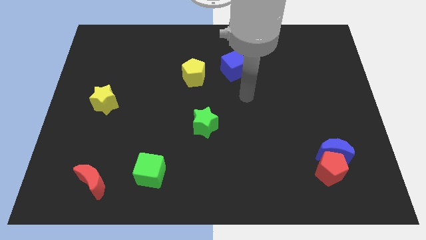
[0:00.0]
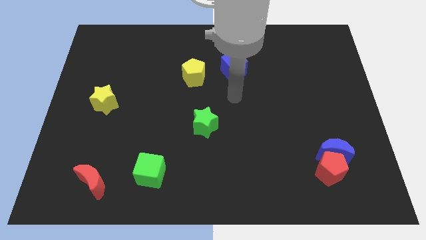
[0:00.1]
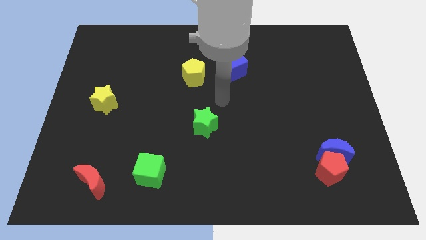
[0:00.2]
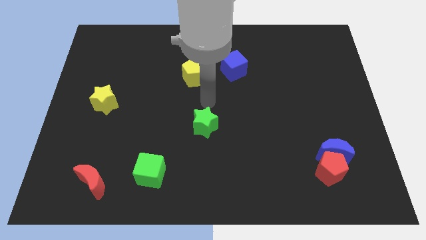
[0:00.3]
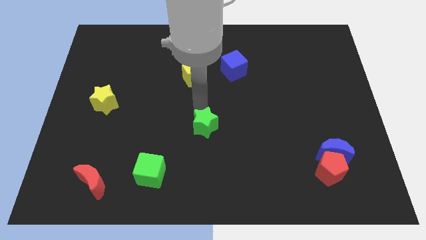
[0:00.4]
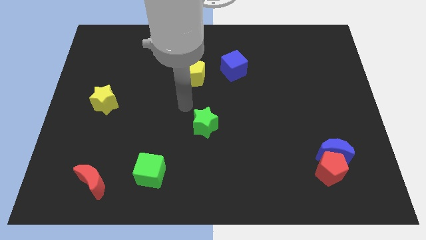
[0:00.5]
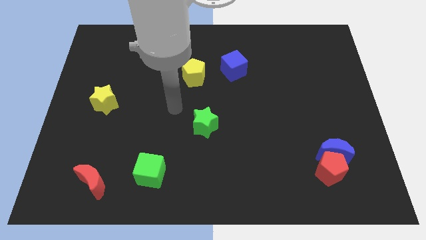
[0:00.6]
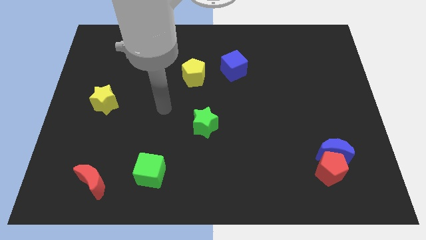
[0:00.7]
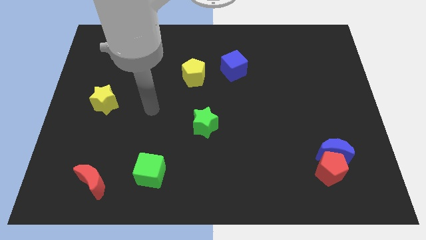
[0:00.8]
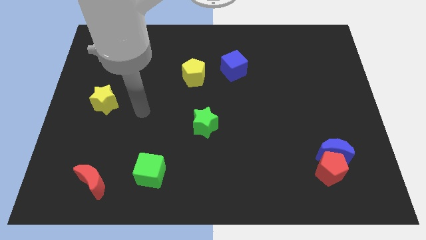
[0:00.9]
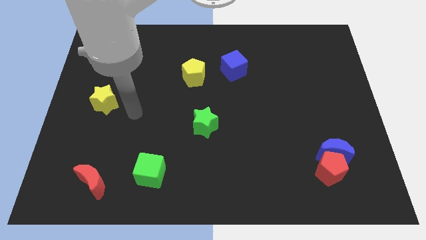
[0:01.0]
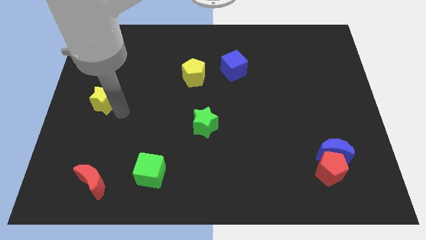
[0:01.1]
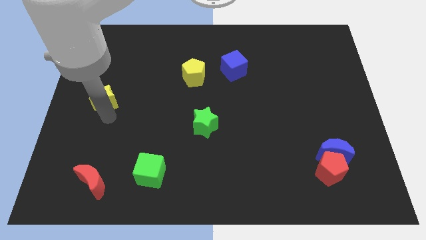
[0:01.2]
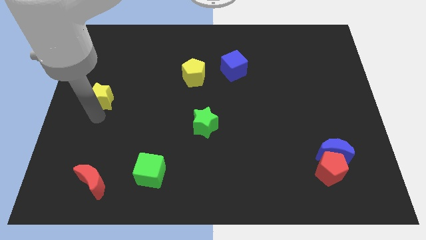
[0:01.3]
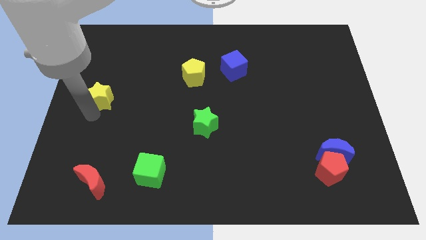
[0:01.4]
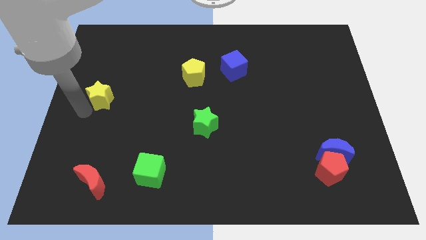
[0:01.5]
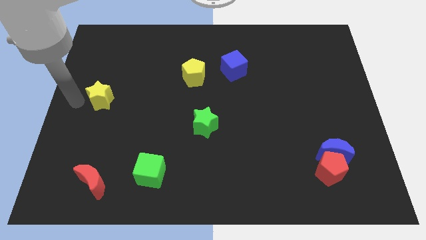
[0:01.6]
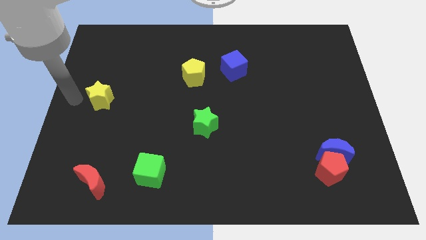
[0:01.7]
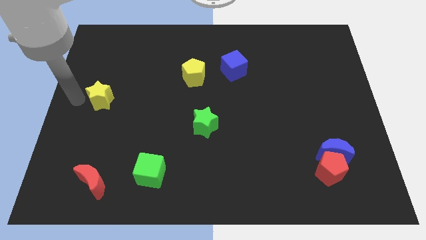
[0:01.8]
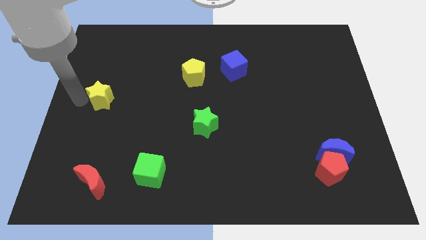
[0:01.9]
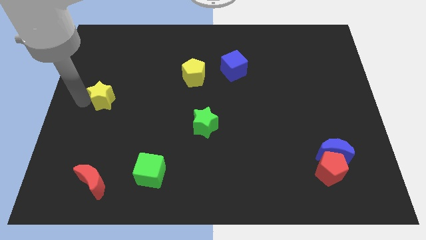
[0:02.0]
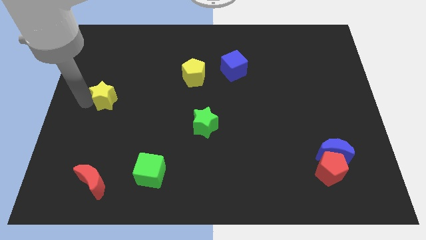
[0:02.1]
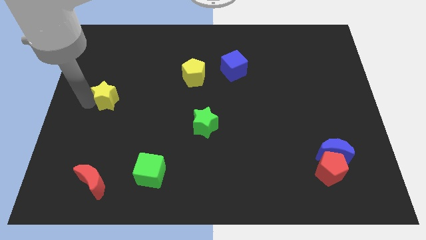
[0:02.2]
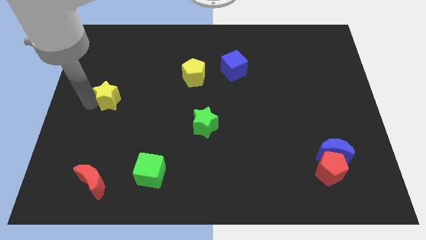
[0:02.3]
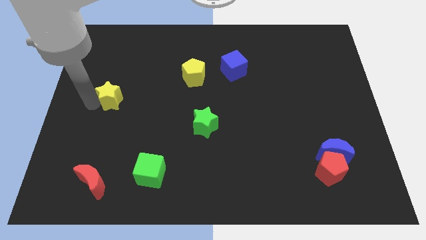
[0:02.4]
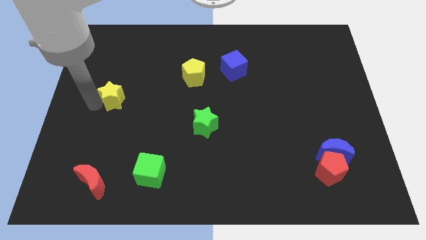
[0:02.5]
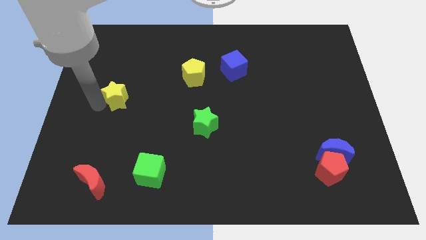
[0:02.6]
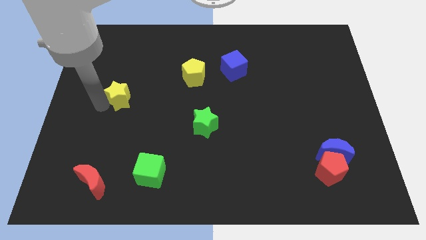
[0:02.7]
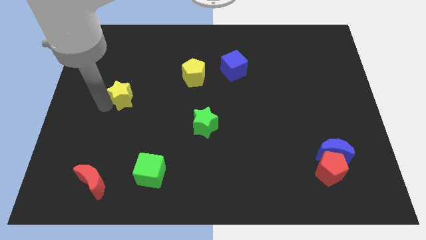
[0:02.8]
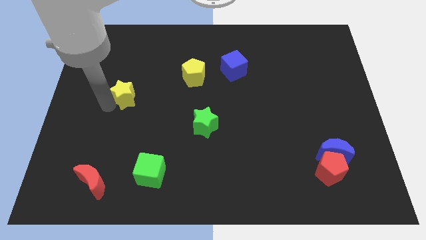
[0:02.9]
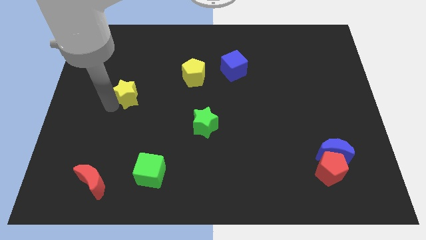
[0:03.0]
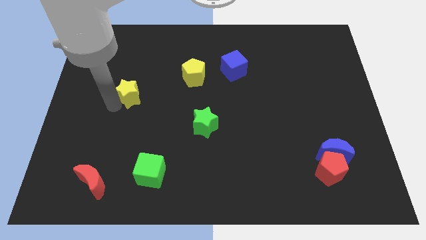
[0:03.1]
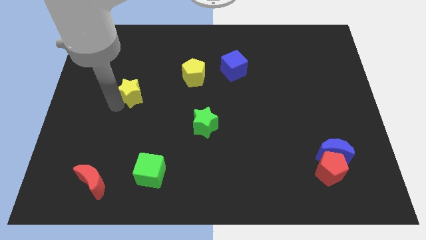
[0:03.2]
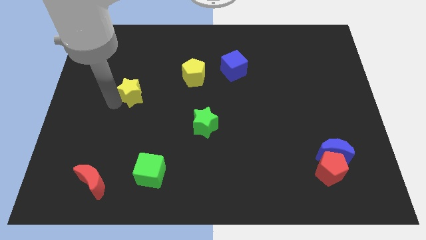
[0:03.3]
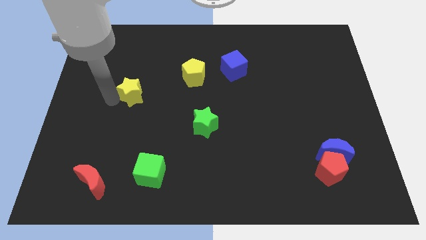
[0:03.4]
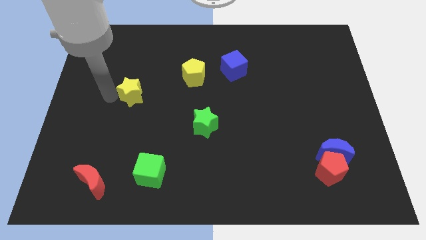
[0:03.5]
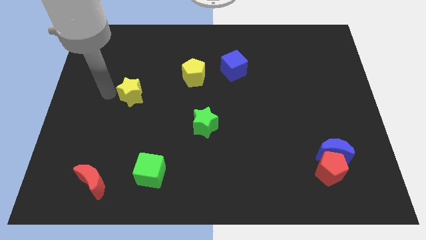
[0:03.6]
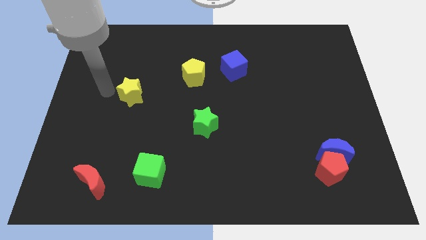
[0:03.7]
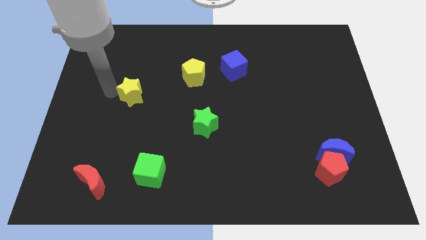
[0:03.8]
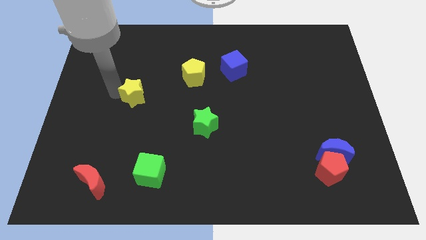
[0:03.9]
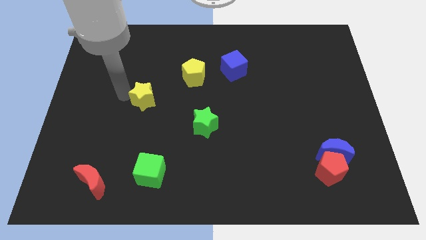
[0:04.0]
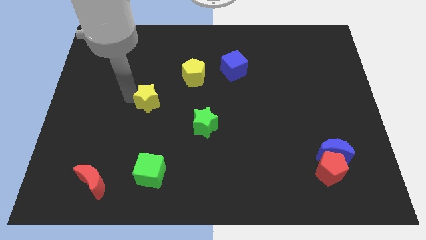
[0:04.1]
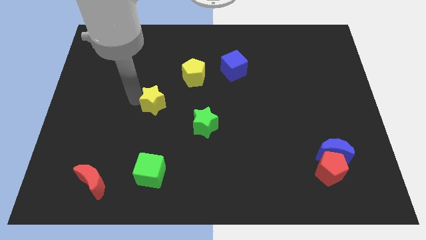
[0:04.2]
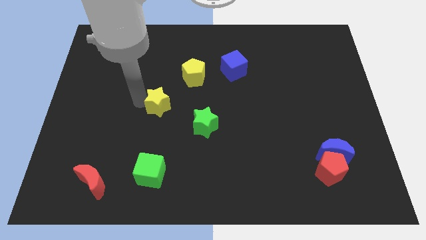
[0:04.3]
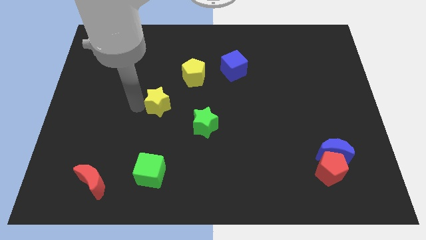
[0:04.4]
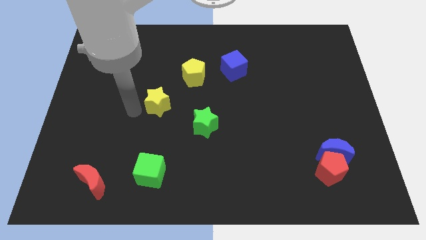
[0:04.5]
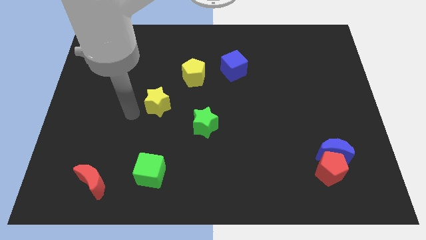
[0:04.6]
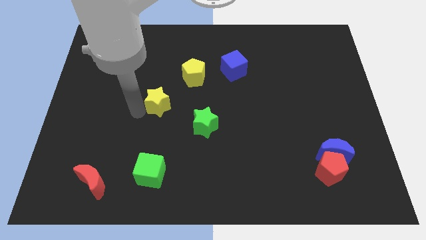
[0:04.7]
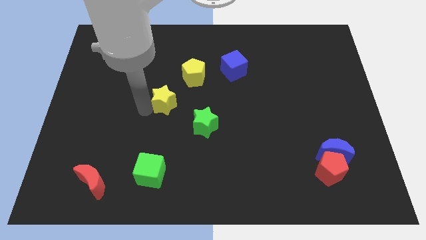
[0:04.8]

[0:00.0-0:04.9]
move the yellow star to the center of the board

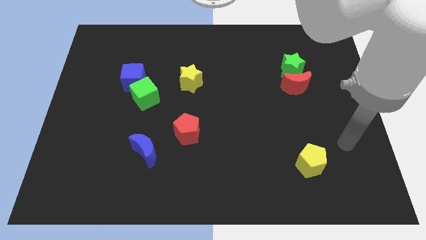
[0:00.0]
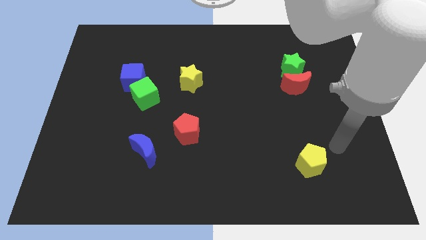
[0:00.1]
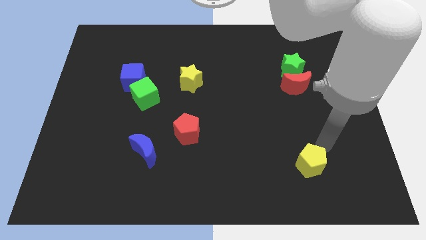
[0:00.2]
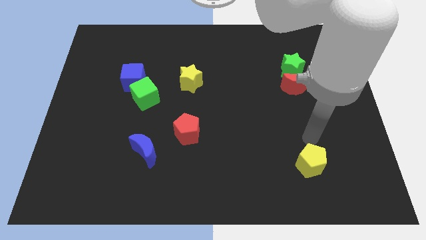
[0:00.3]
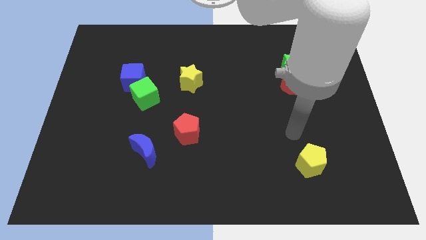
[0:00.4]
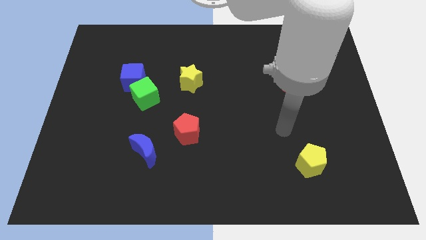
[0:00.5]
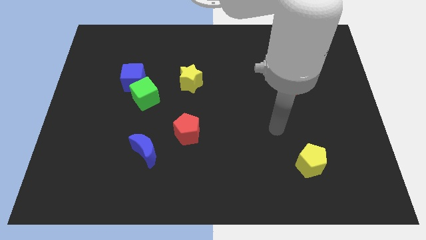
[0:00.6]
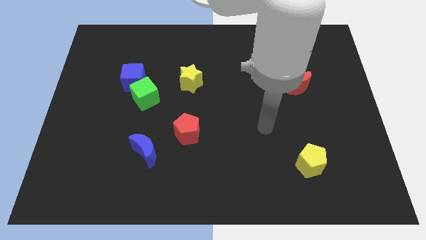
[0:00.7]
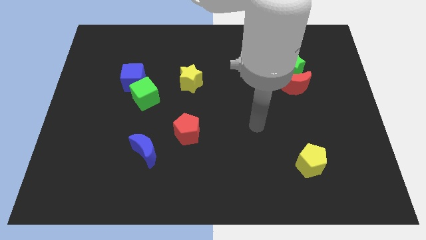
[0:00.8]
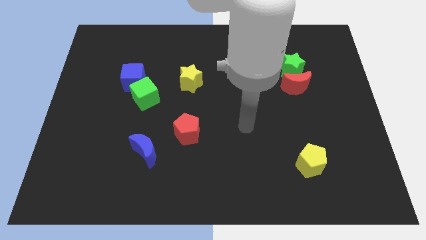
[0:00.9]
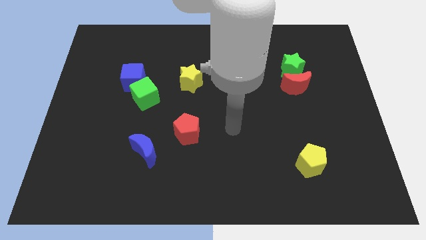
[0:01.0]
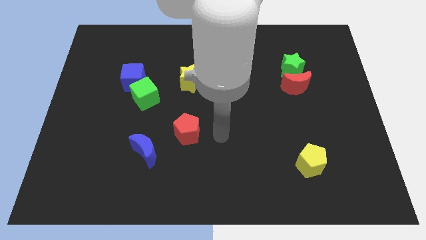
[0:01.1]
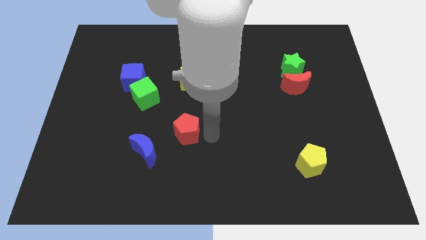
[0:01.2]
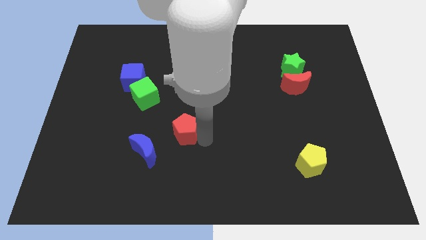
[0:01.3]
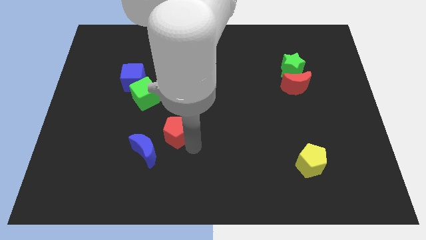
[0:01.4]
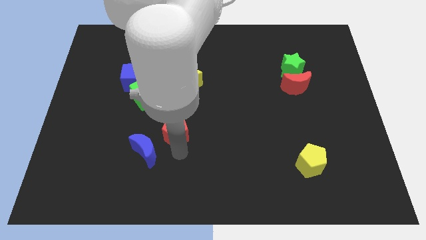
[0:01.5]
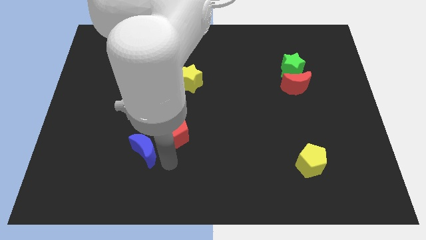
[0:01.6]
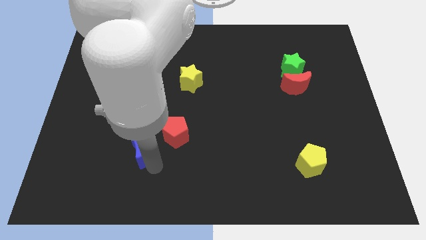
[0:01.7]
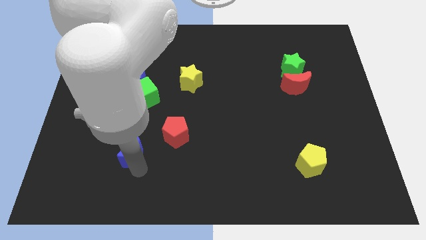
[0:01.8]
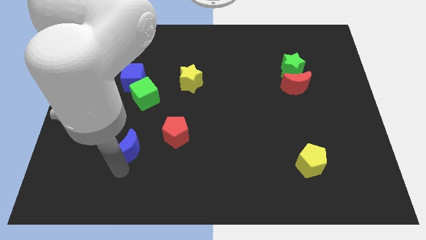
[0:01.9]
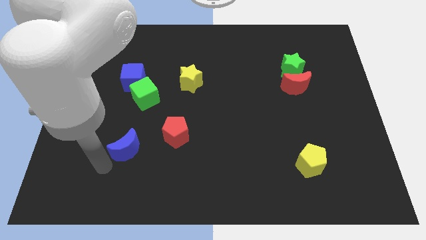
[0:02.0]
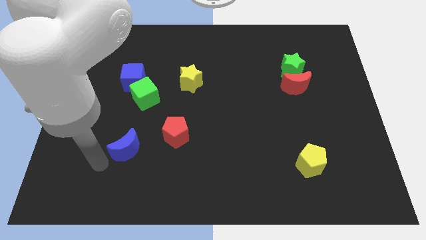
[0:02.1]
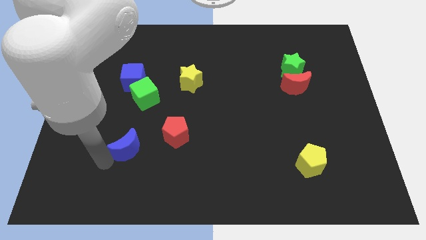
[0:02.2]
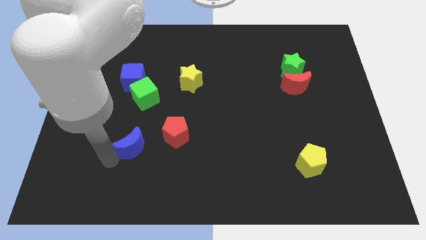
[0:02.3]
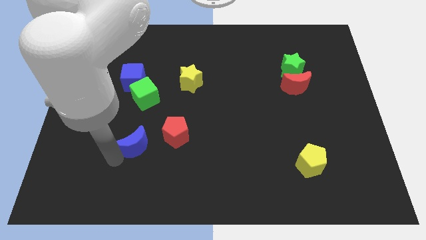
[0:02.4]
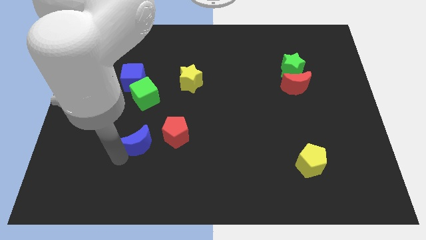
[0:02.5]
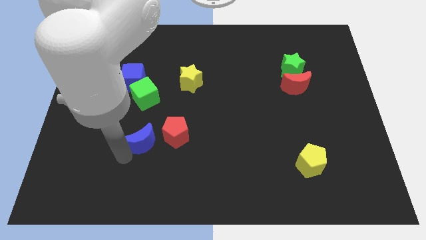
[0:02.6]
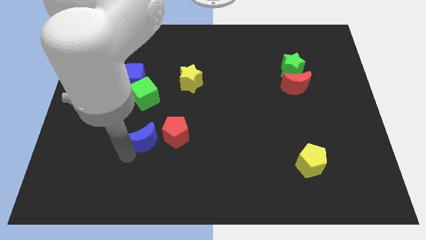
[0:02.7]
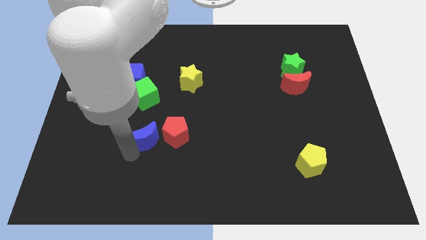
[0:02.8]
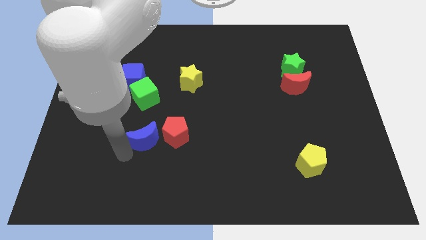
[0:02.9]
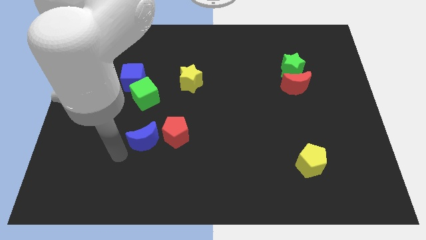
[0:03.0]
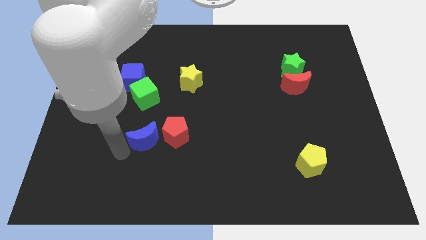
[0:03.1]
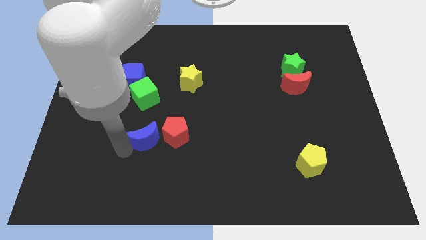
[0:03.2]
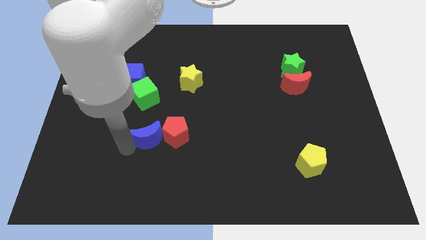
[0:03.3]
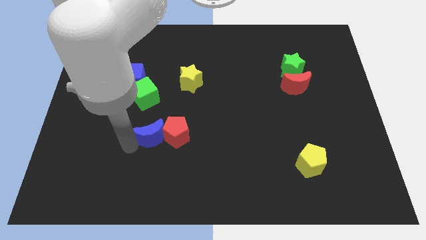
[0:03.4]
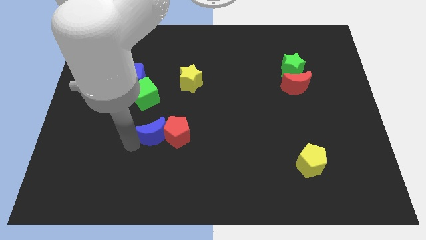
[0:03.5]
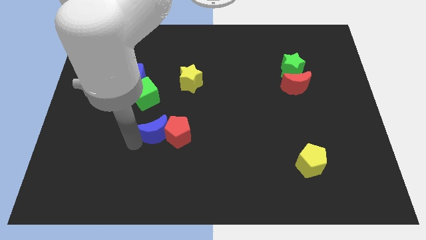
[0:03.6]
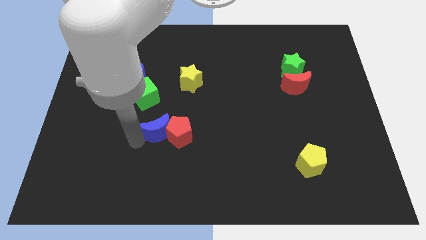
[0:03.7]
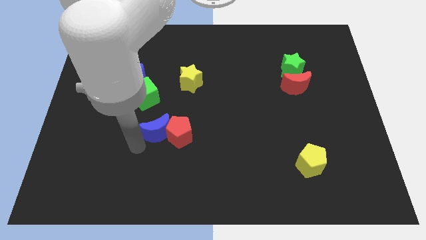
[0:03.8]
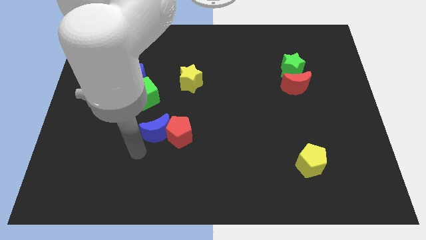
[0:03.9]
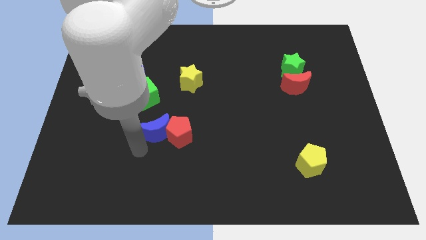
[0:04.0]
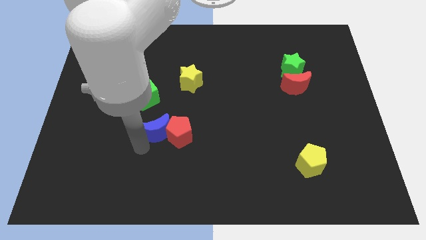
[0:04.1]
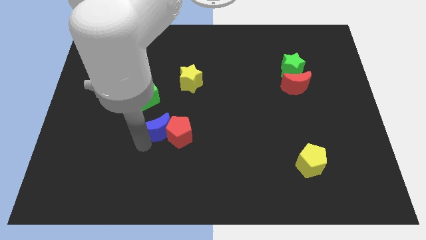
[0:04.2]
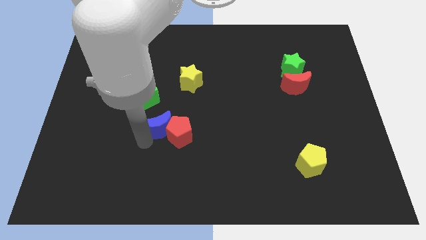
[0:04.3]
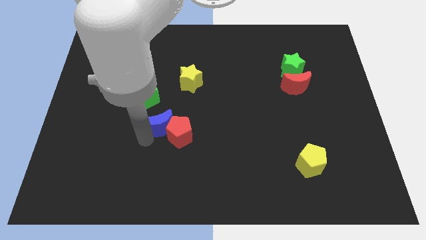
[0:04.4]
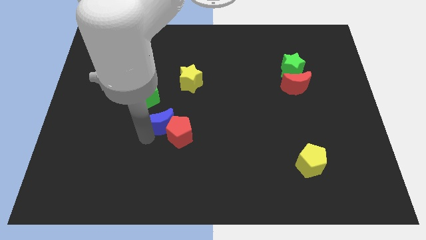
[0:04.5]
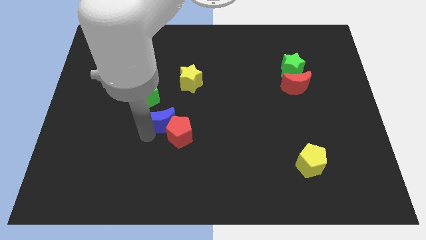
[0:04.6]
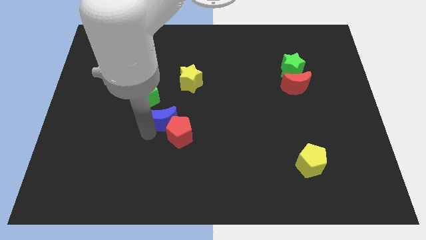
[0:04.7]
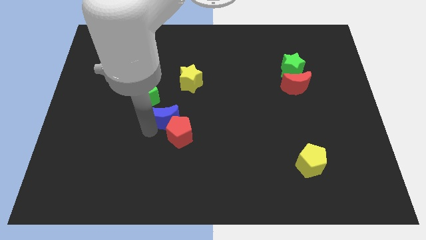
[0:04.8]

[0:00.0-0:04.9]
slide the blue moon to the middle
